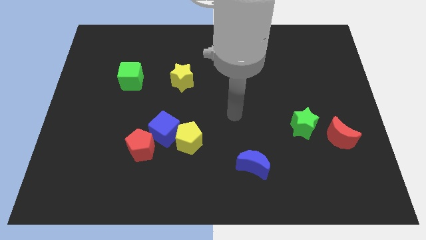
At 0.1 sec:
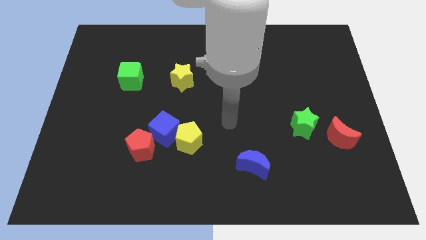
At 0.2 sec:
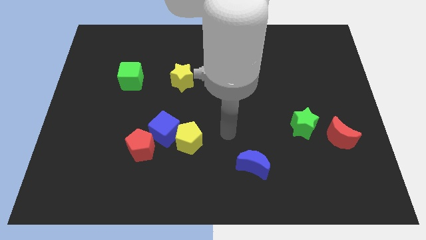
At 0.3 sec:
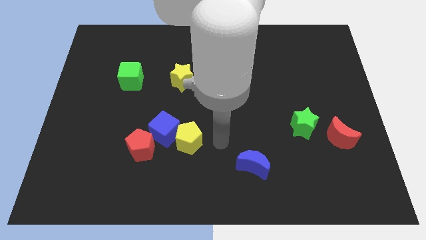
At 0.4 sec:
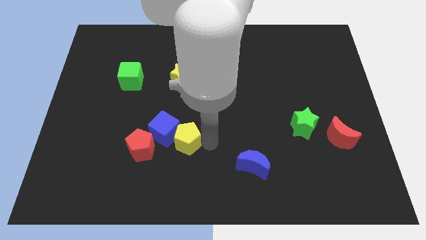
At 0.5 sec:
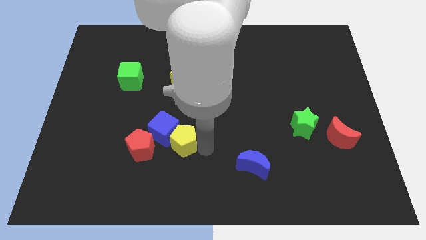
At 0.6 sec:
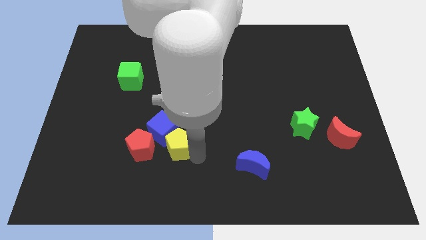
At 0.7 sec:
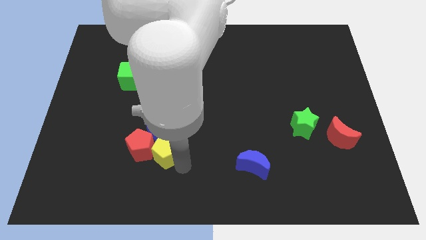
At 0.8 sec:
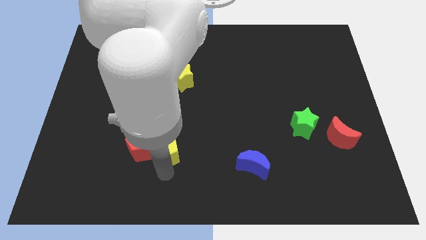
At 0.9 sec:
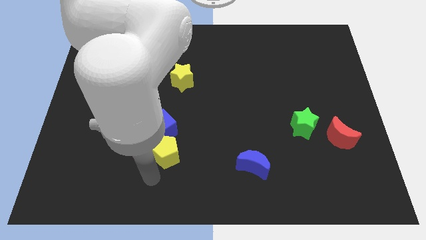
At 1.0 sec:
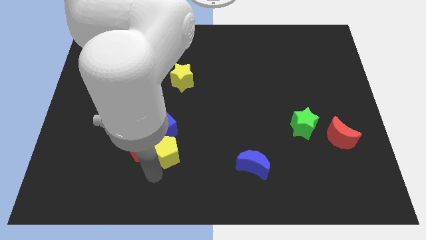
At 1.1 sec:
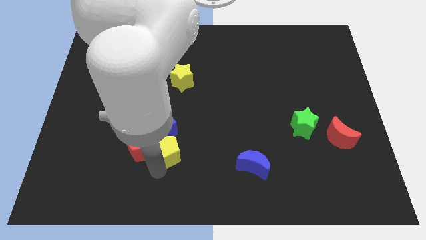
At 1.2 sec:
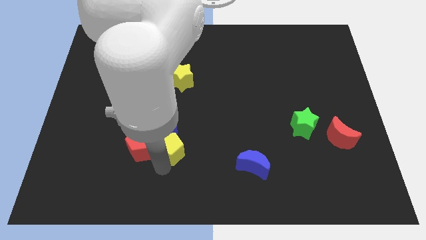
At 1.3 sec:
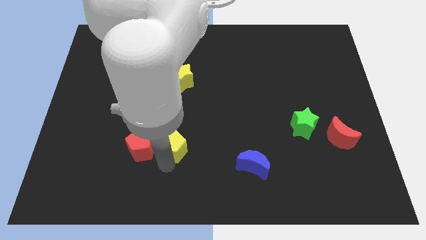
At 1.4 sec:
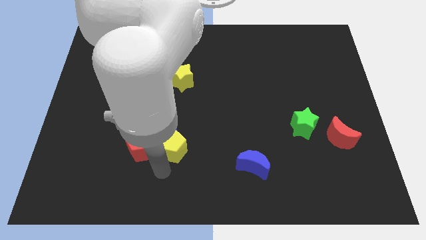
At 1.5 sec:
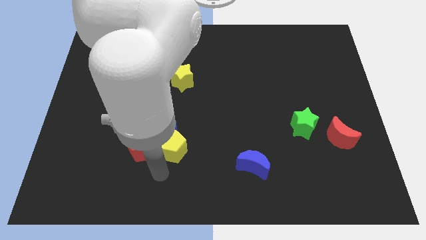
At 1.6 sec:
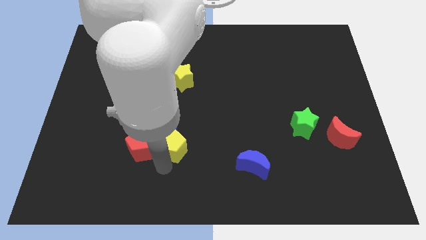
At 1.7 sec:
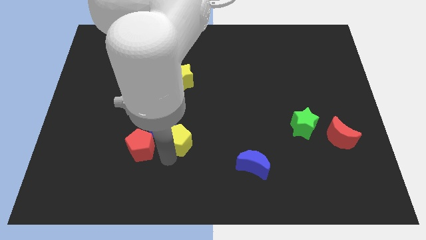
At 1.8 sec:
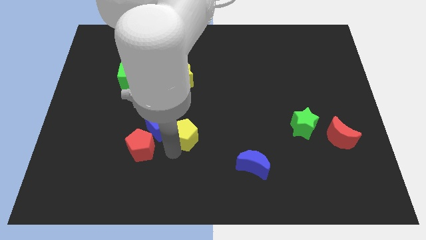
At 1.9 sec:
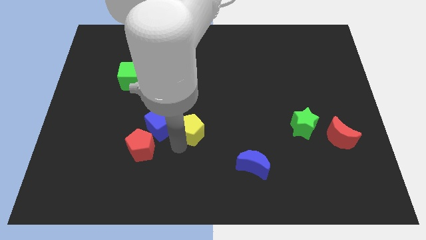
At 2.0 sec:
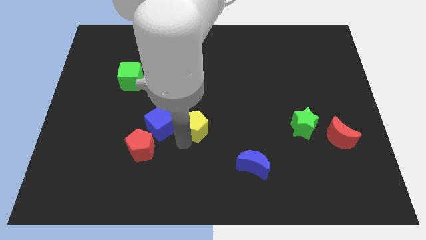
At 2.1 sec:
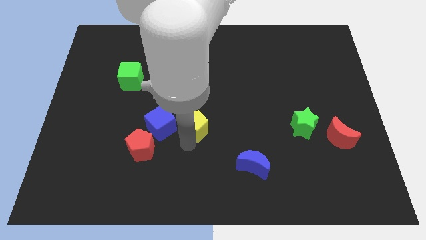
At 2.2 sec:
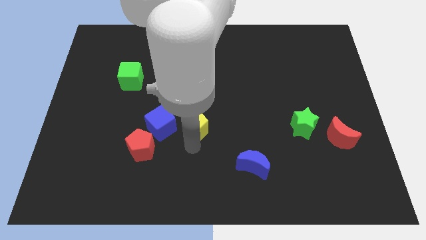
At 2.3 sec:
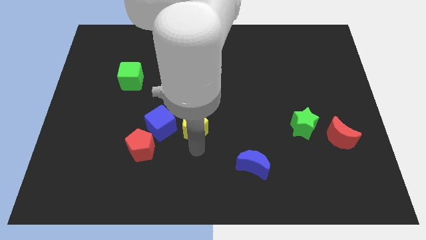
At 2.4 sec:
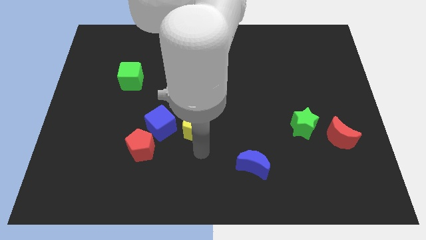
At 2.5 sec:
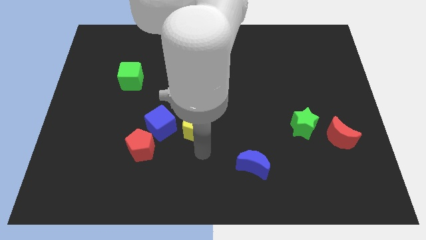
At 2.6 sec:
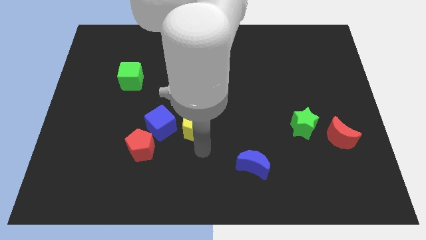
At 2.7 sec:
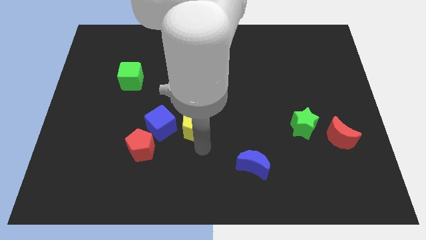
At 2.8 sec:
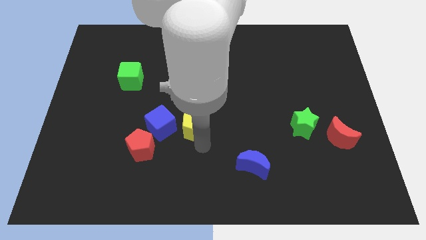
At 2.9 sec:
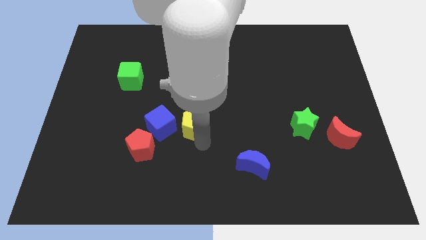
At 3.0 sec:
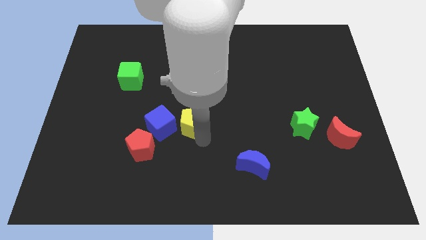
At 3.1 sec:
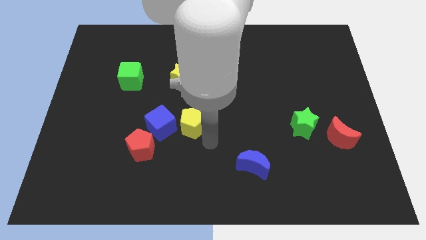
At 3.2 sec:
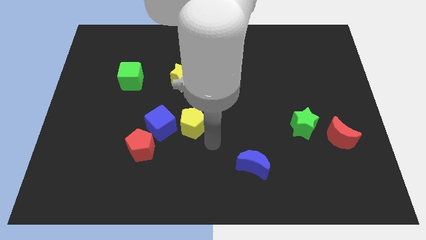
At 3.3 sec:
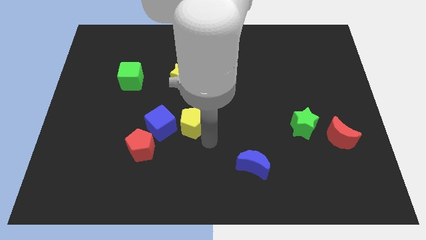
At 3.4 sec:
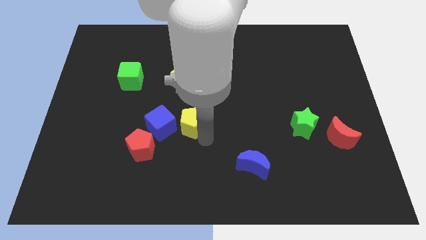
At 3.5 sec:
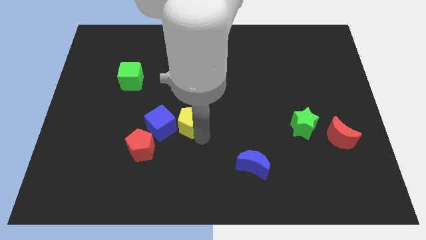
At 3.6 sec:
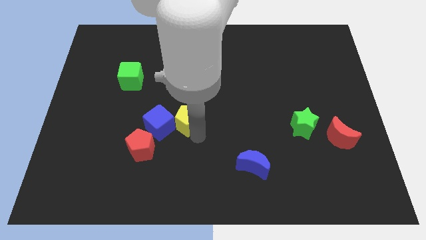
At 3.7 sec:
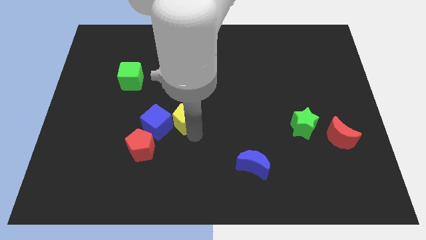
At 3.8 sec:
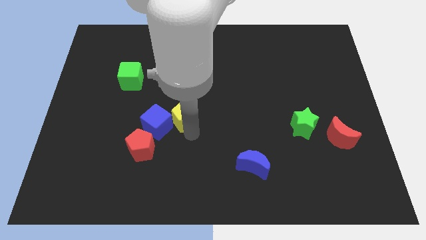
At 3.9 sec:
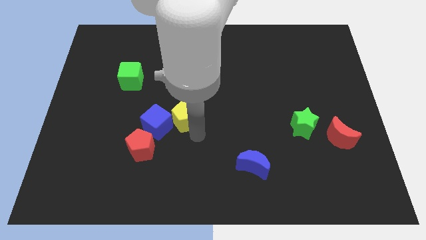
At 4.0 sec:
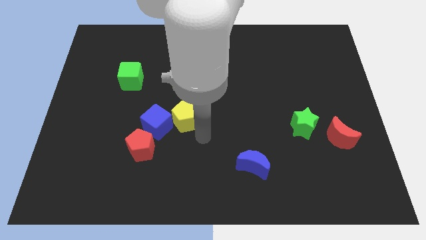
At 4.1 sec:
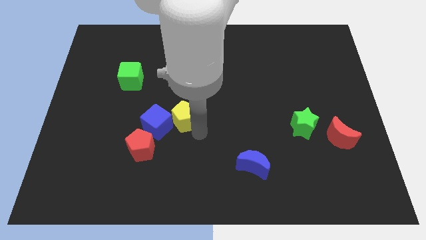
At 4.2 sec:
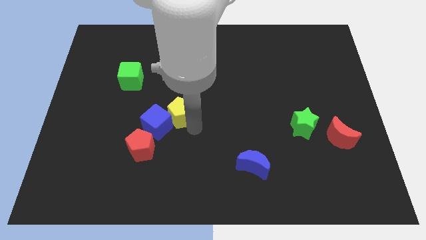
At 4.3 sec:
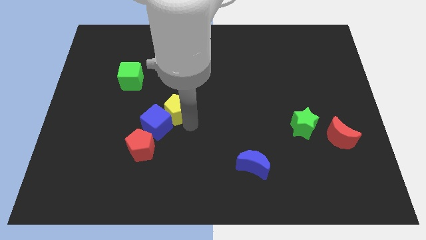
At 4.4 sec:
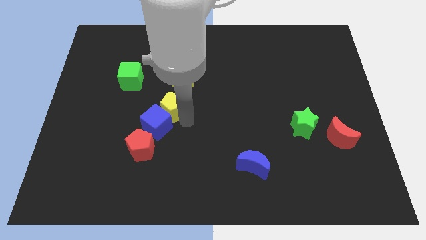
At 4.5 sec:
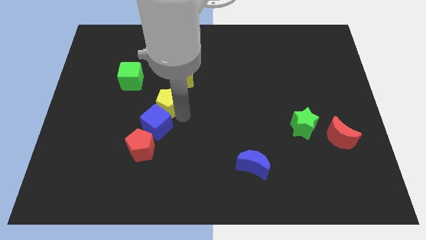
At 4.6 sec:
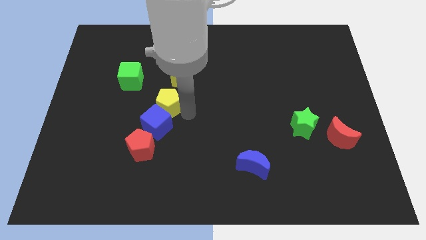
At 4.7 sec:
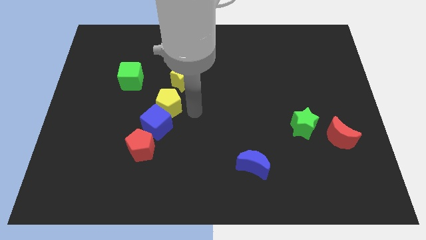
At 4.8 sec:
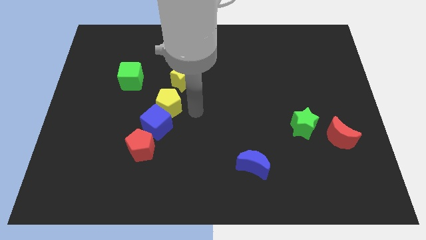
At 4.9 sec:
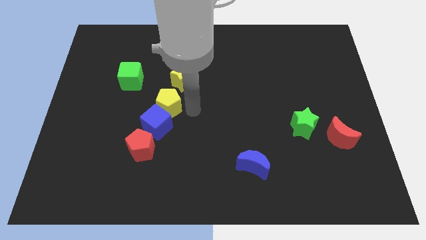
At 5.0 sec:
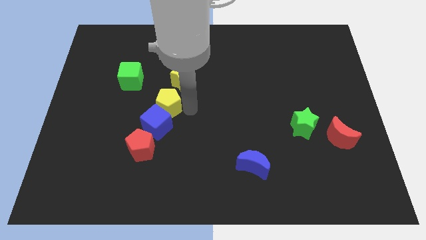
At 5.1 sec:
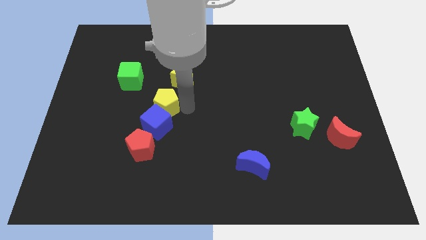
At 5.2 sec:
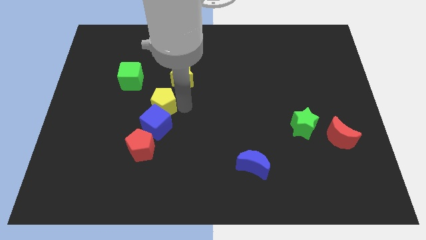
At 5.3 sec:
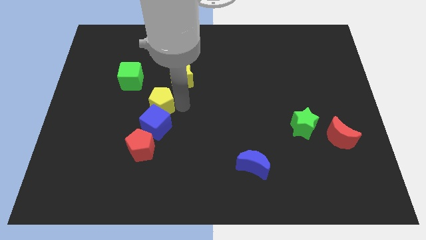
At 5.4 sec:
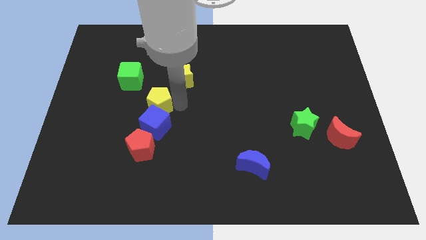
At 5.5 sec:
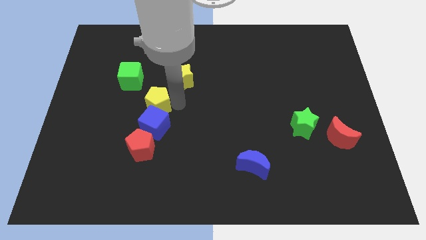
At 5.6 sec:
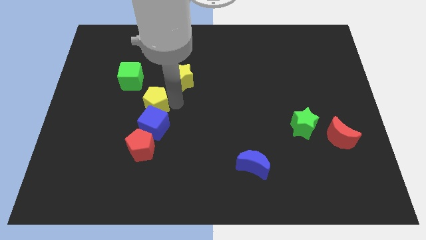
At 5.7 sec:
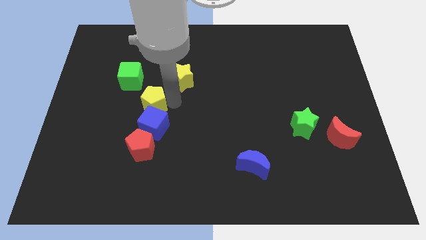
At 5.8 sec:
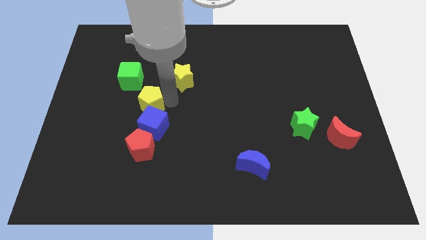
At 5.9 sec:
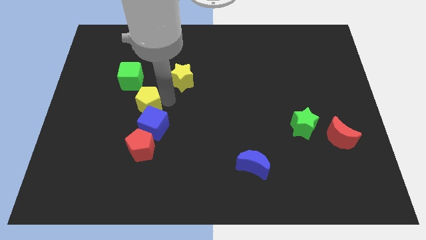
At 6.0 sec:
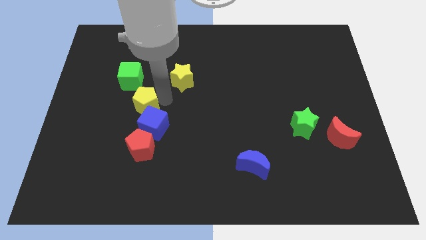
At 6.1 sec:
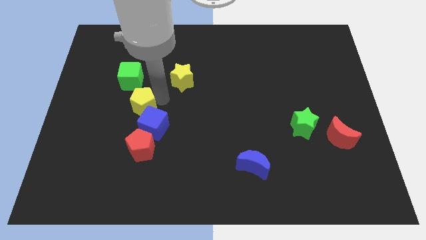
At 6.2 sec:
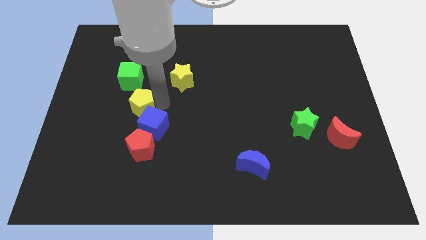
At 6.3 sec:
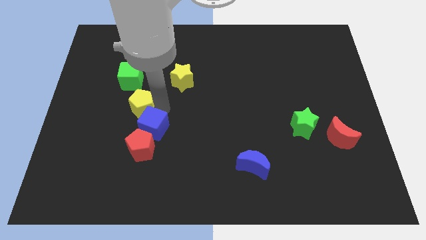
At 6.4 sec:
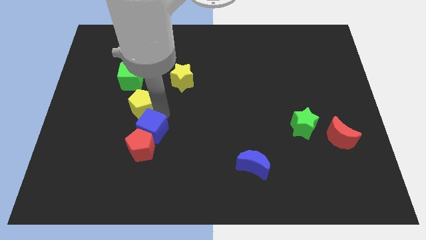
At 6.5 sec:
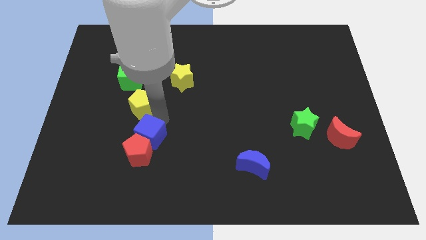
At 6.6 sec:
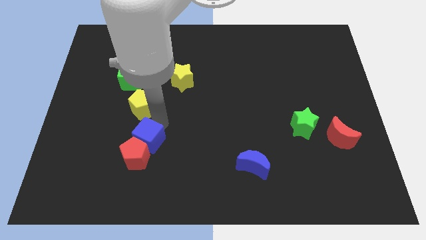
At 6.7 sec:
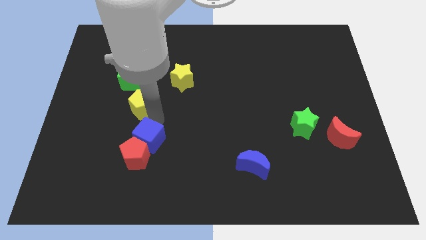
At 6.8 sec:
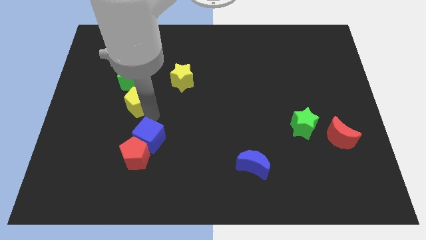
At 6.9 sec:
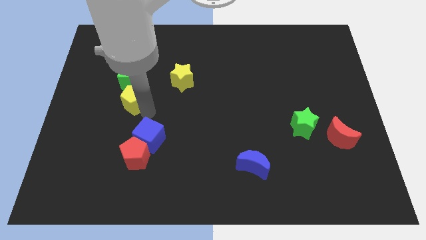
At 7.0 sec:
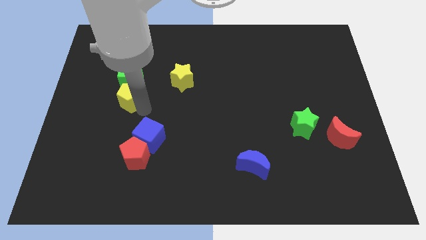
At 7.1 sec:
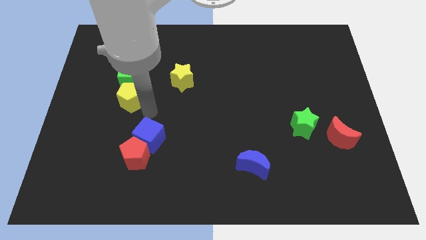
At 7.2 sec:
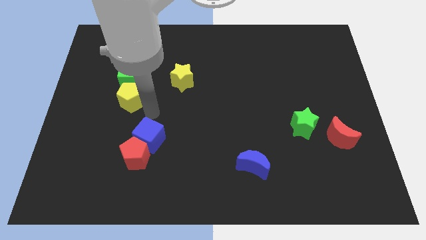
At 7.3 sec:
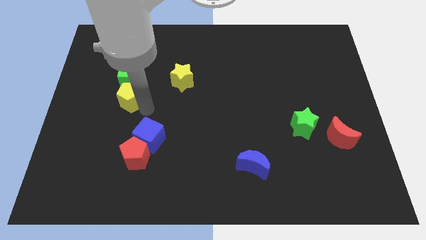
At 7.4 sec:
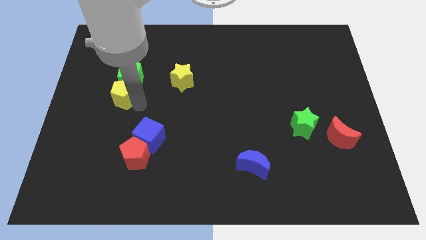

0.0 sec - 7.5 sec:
push the yellow pentagon up and to the left

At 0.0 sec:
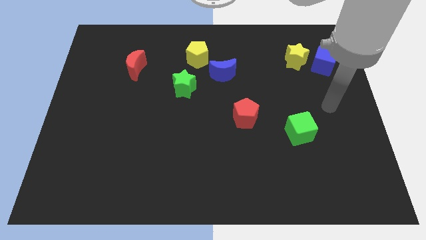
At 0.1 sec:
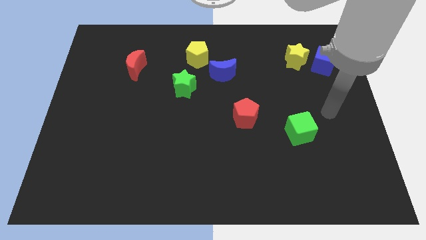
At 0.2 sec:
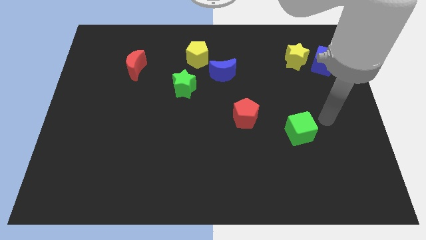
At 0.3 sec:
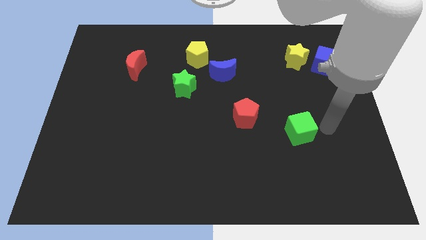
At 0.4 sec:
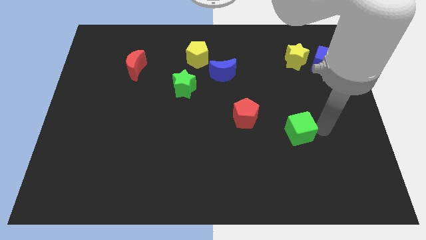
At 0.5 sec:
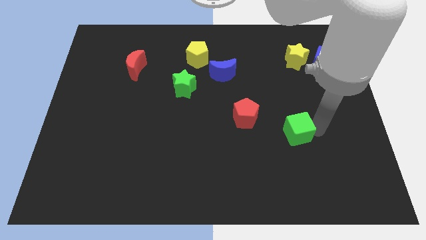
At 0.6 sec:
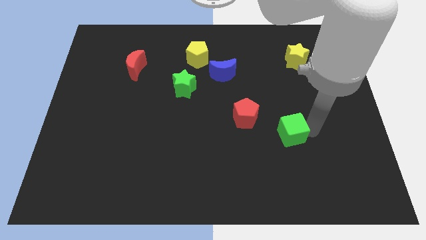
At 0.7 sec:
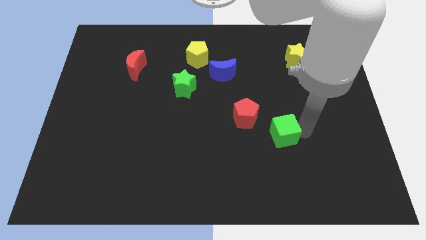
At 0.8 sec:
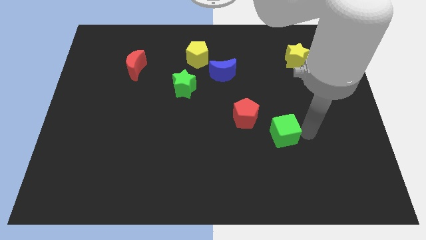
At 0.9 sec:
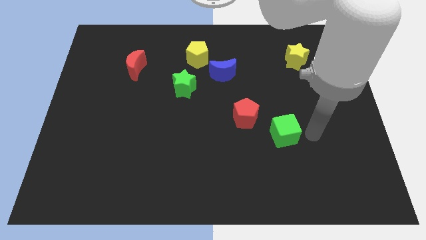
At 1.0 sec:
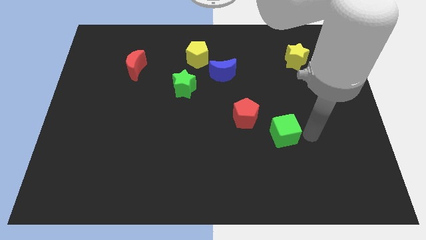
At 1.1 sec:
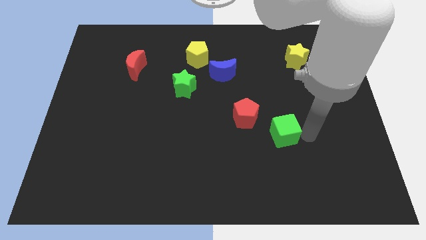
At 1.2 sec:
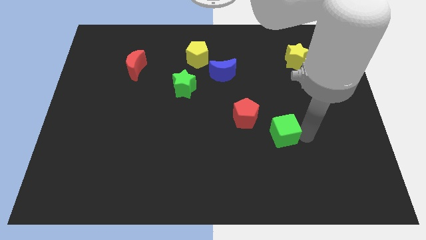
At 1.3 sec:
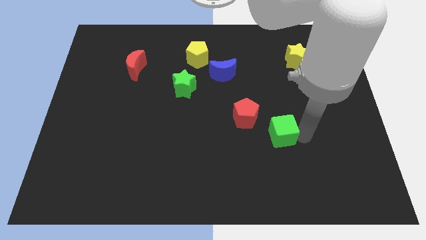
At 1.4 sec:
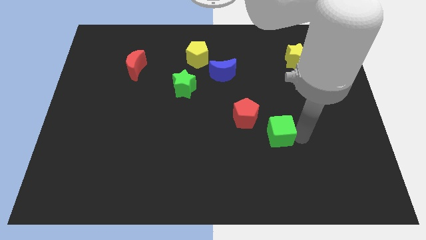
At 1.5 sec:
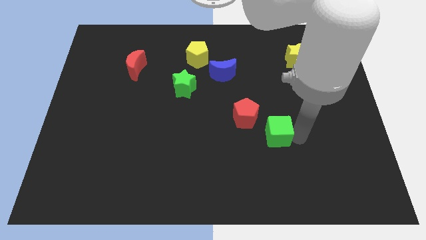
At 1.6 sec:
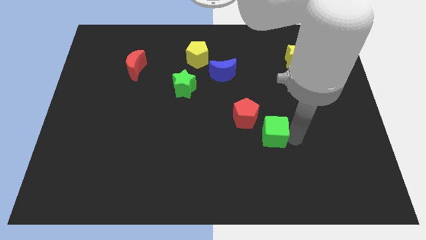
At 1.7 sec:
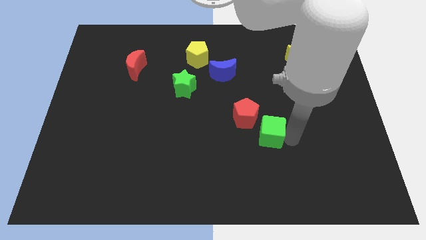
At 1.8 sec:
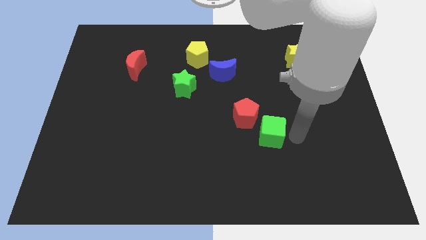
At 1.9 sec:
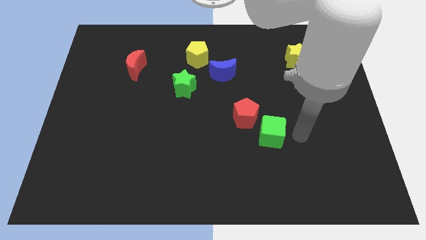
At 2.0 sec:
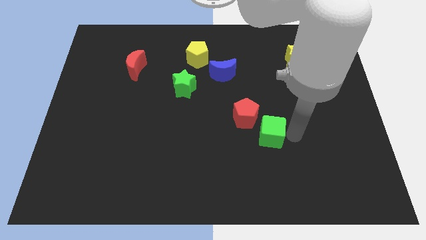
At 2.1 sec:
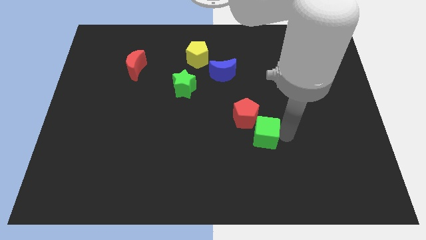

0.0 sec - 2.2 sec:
move the green cube a little bit to the left
